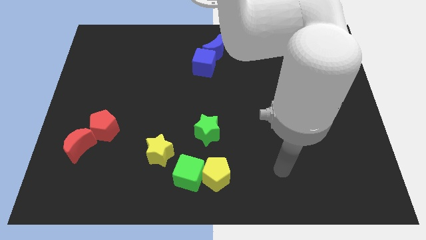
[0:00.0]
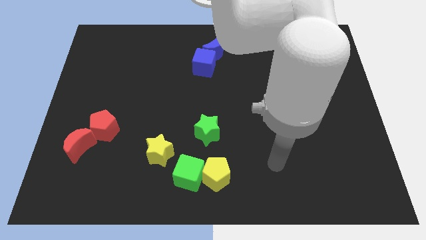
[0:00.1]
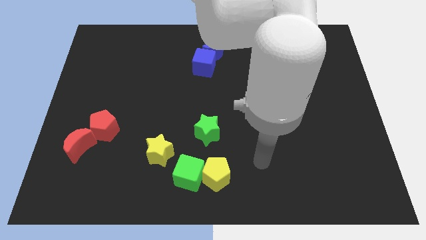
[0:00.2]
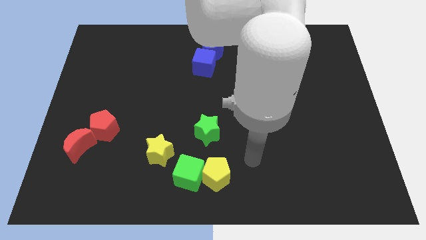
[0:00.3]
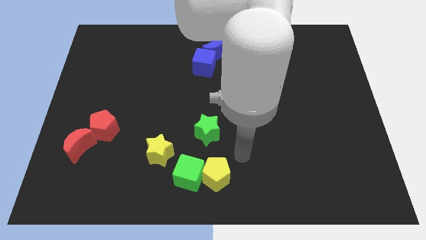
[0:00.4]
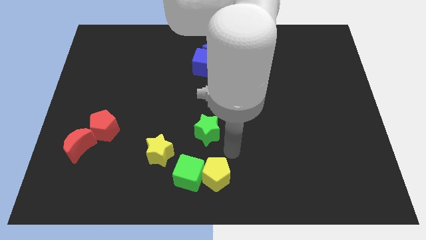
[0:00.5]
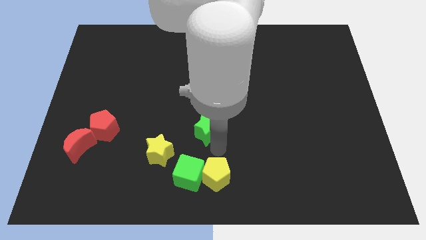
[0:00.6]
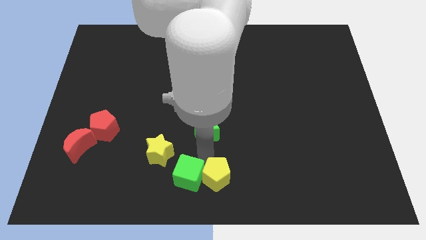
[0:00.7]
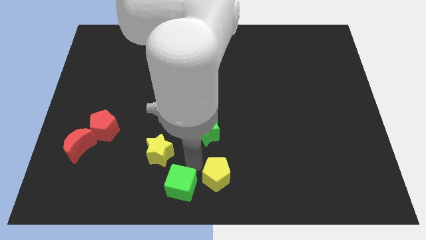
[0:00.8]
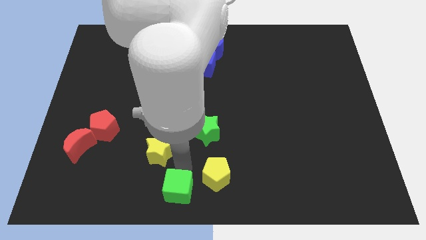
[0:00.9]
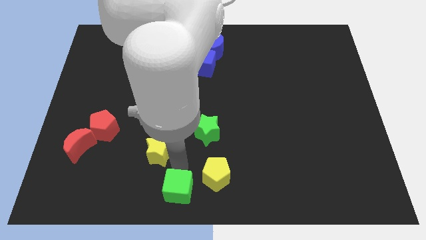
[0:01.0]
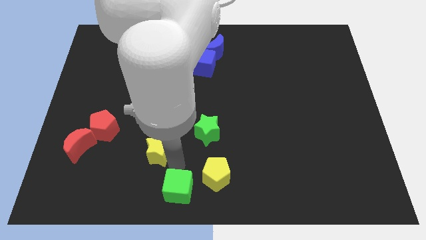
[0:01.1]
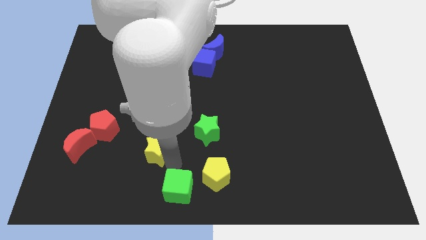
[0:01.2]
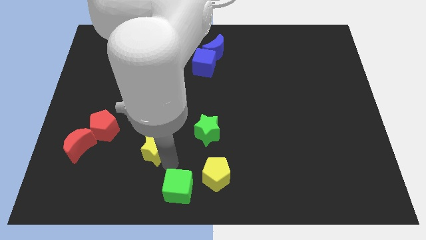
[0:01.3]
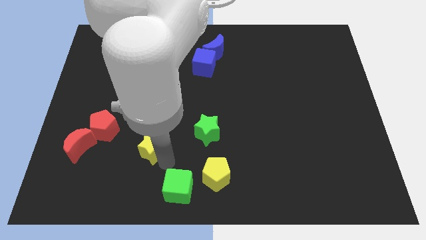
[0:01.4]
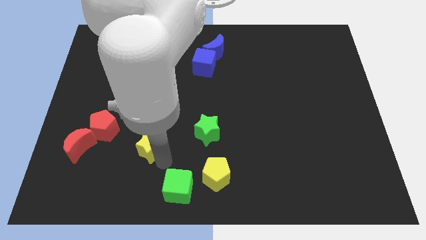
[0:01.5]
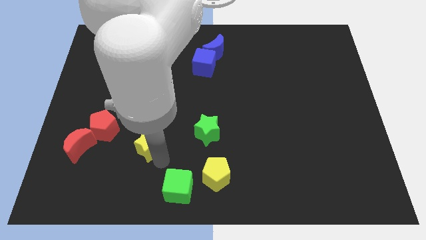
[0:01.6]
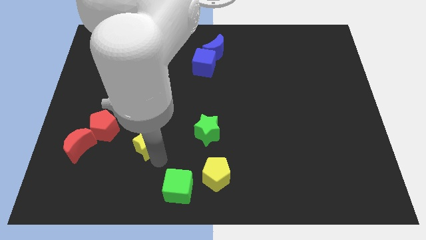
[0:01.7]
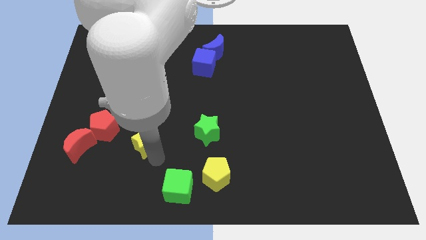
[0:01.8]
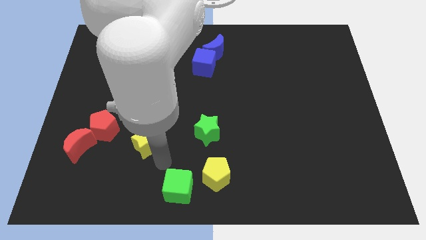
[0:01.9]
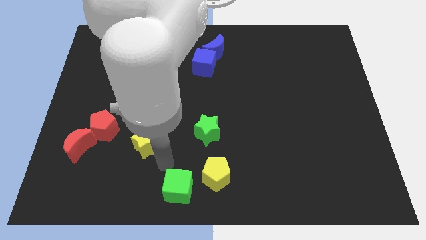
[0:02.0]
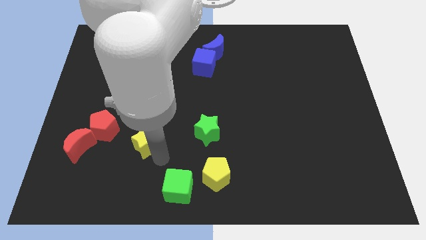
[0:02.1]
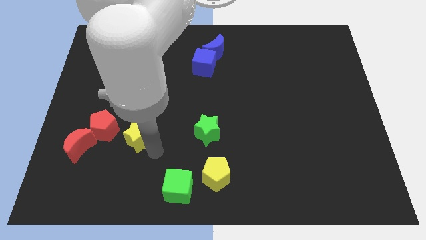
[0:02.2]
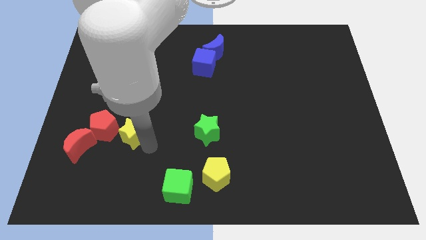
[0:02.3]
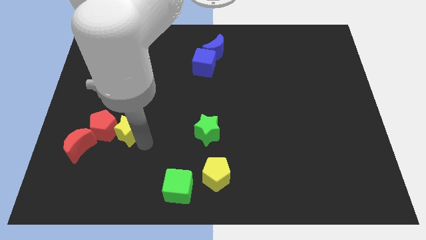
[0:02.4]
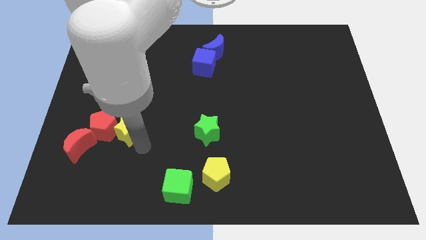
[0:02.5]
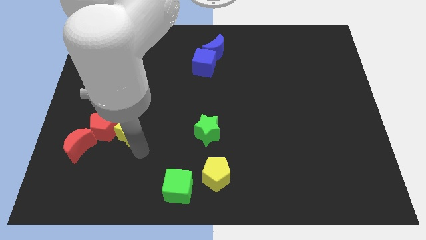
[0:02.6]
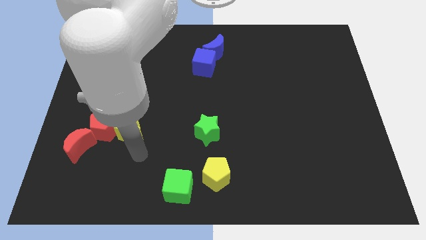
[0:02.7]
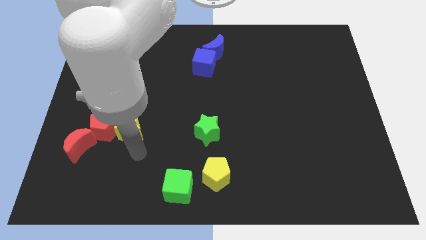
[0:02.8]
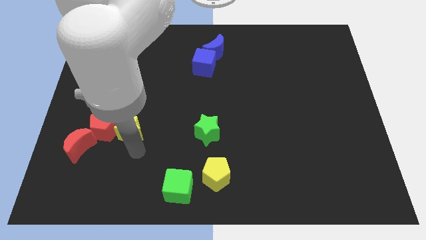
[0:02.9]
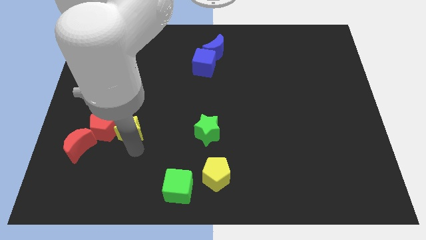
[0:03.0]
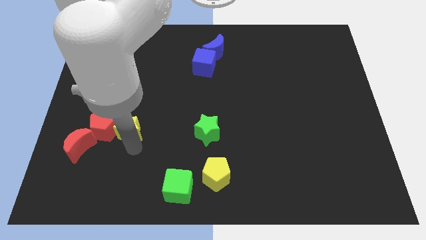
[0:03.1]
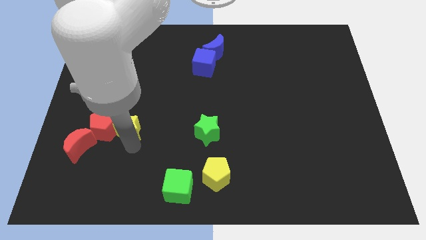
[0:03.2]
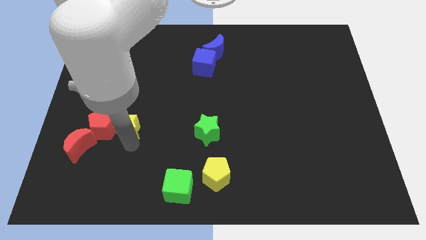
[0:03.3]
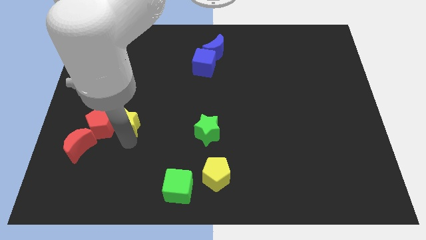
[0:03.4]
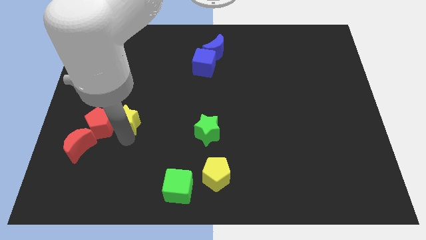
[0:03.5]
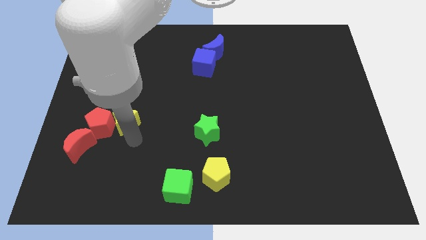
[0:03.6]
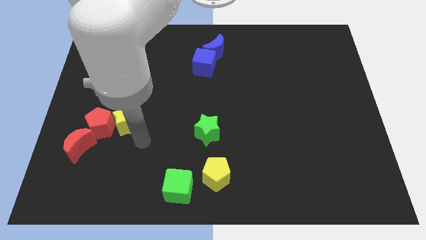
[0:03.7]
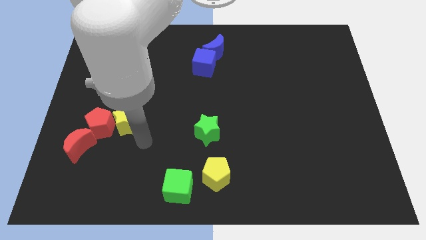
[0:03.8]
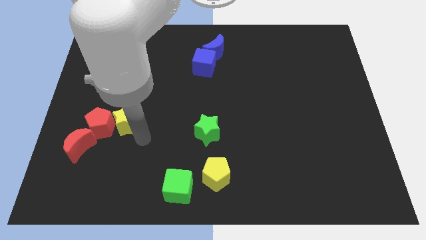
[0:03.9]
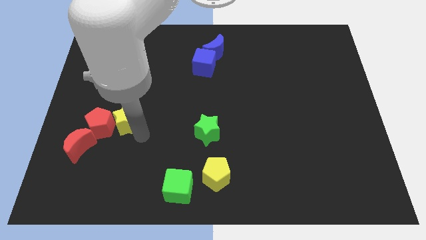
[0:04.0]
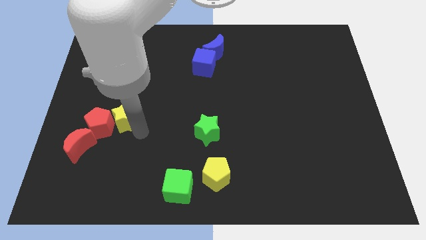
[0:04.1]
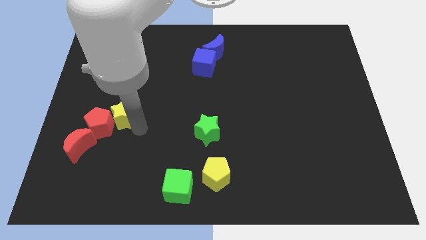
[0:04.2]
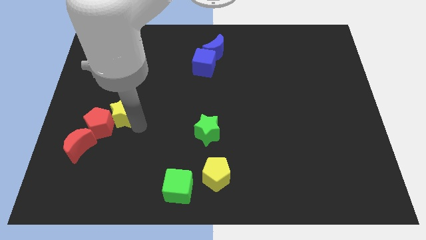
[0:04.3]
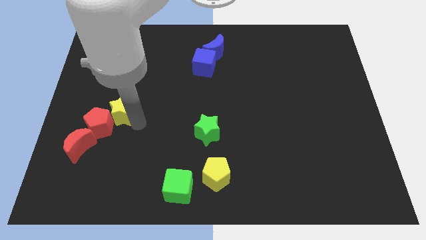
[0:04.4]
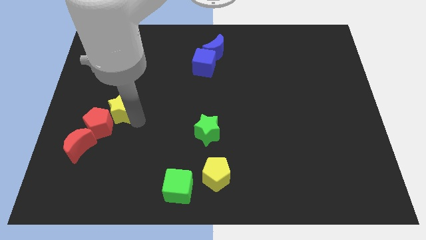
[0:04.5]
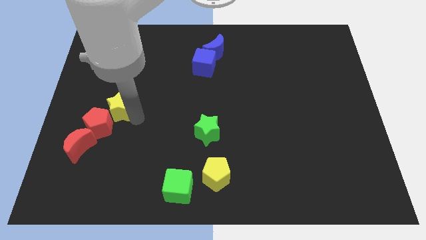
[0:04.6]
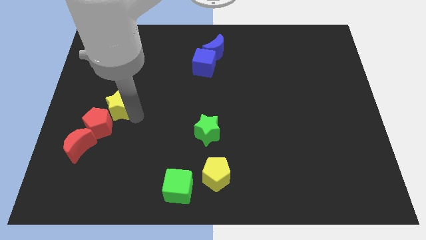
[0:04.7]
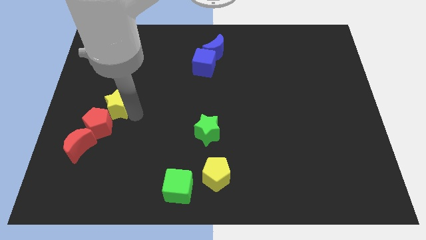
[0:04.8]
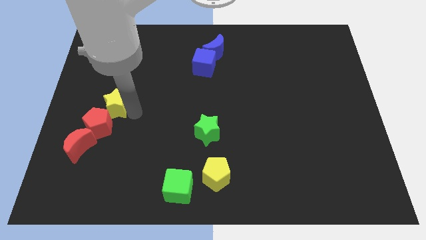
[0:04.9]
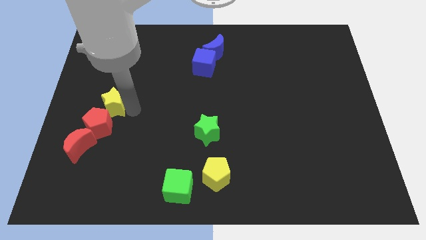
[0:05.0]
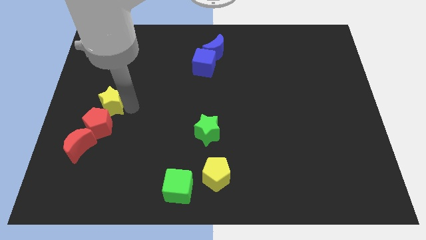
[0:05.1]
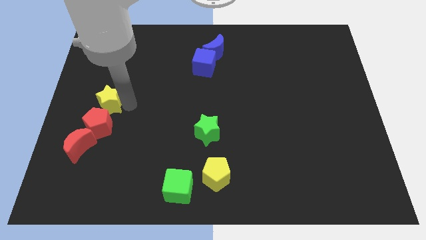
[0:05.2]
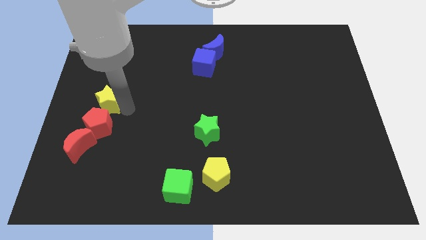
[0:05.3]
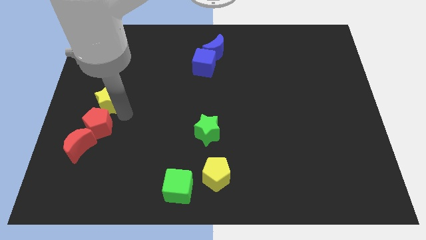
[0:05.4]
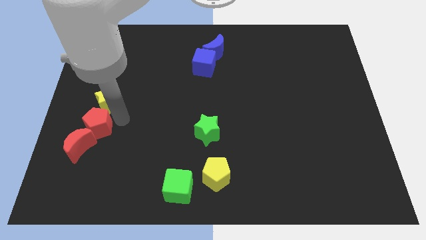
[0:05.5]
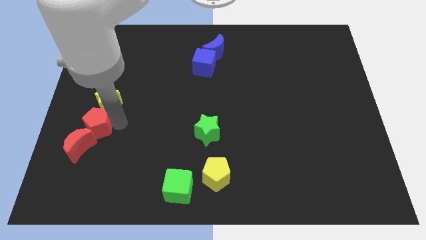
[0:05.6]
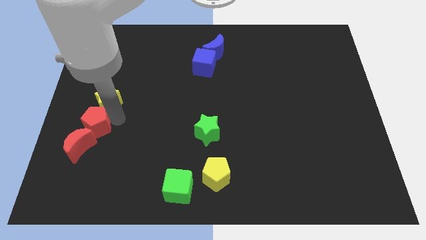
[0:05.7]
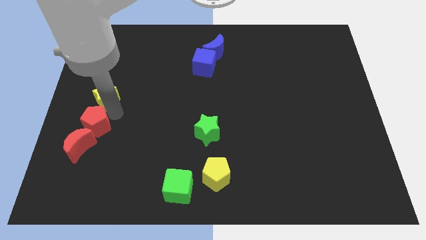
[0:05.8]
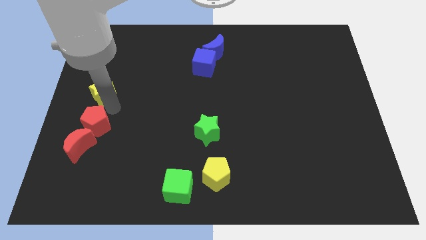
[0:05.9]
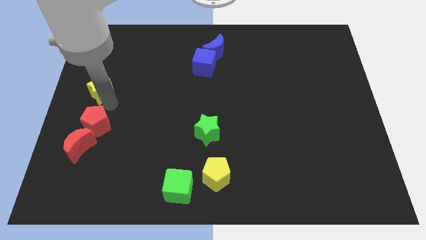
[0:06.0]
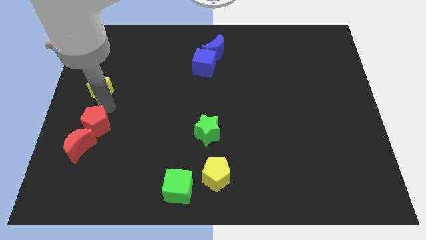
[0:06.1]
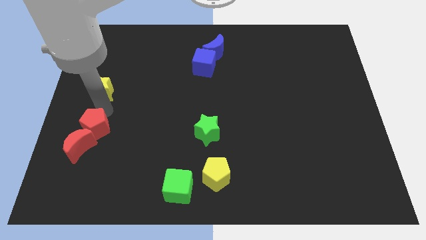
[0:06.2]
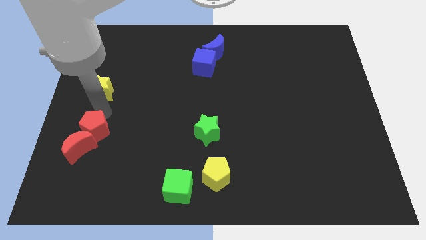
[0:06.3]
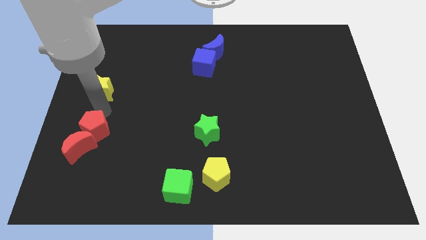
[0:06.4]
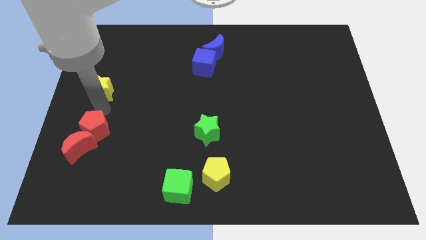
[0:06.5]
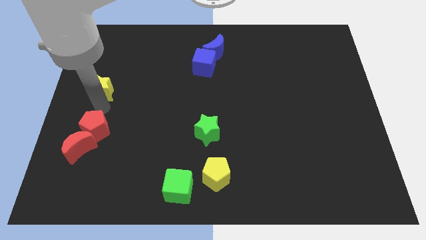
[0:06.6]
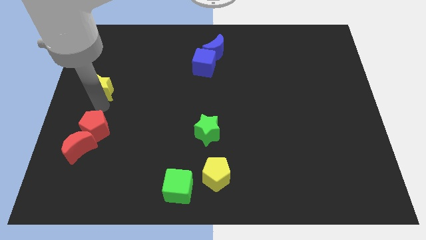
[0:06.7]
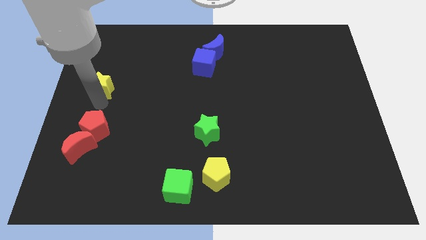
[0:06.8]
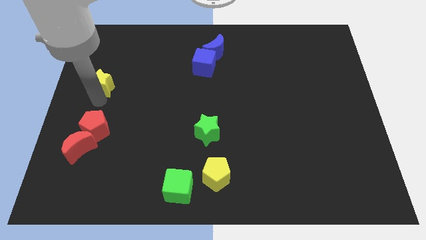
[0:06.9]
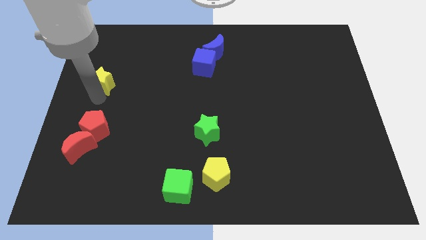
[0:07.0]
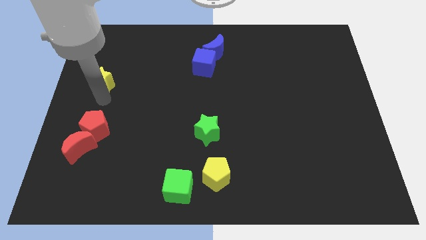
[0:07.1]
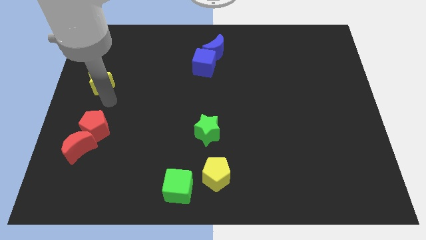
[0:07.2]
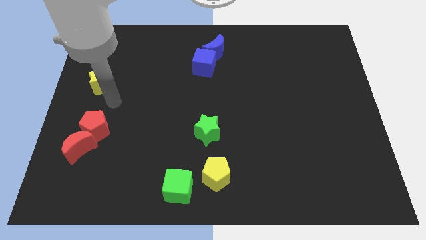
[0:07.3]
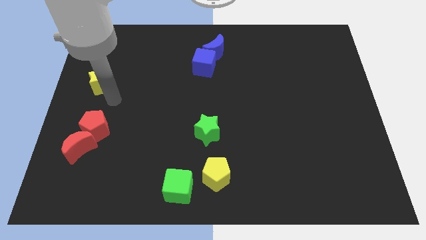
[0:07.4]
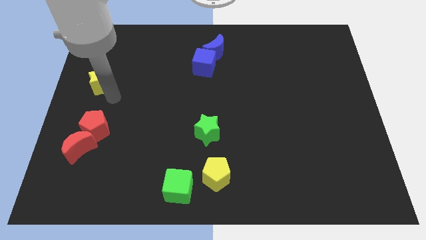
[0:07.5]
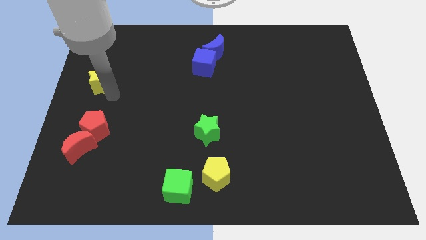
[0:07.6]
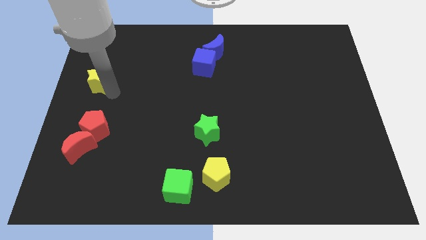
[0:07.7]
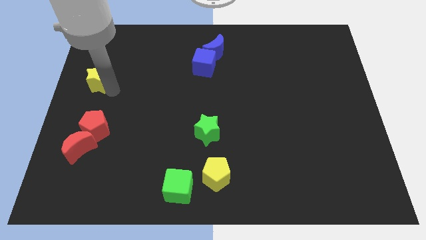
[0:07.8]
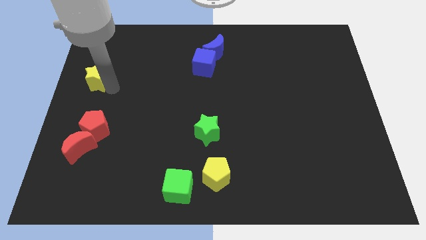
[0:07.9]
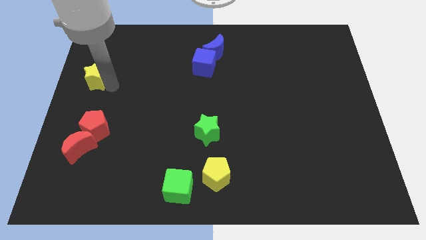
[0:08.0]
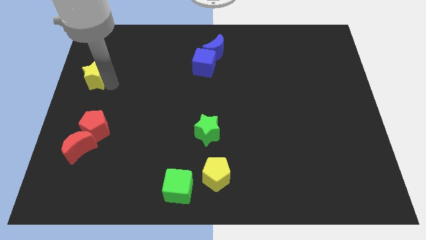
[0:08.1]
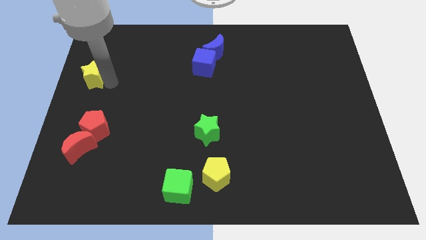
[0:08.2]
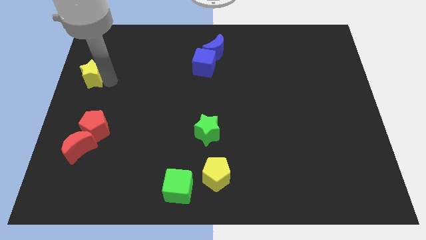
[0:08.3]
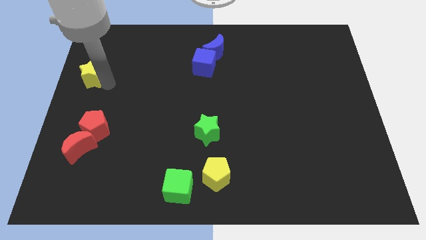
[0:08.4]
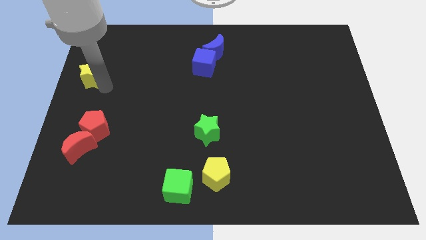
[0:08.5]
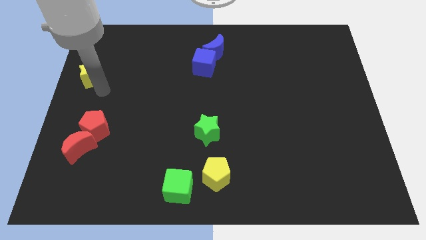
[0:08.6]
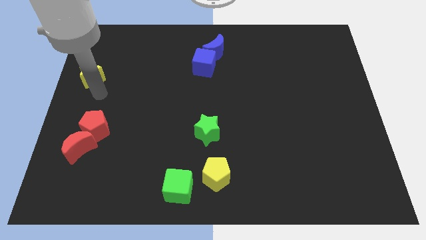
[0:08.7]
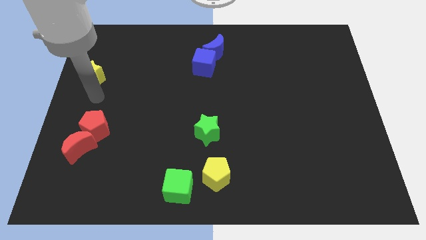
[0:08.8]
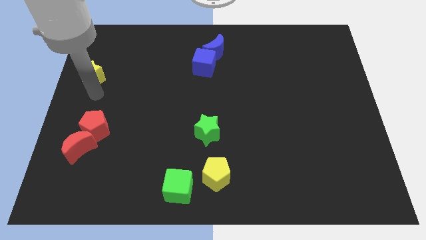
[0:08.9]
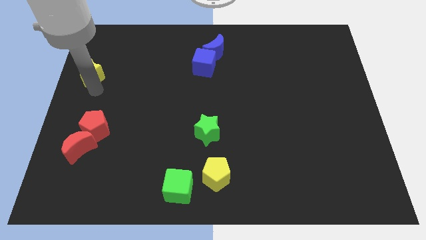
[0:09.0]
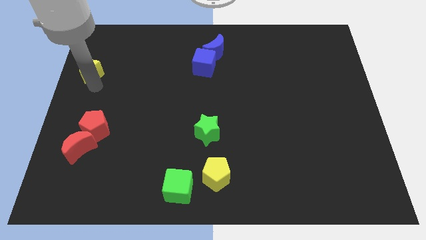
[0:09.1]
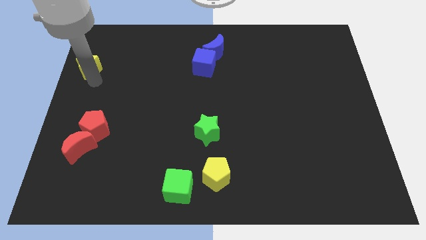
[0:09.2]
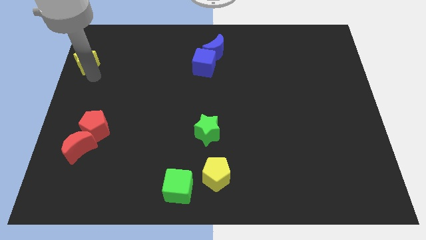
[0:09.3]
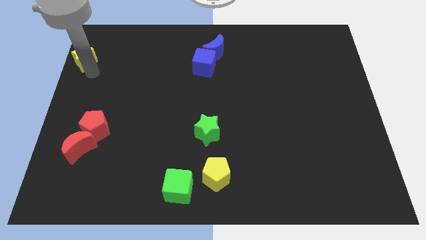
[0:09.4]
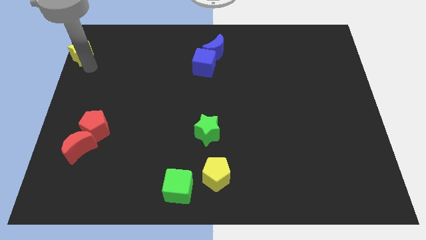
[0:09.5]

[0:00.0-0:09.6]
put the yellow star to the top left corner
